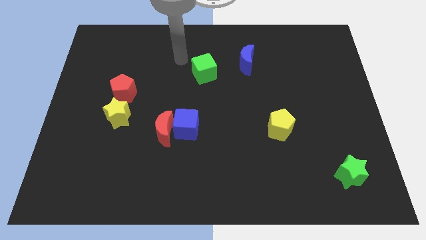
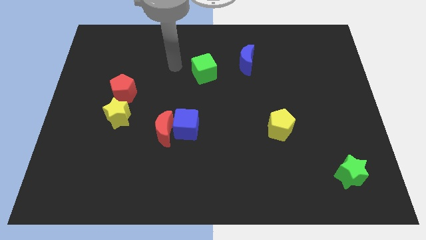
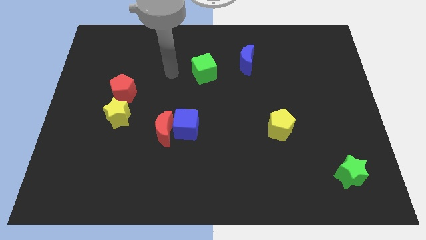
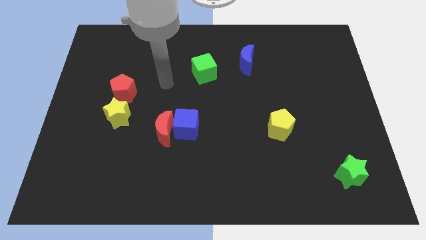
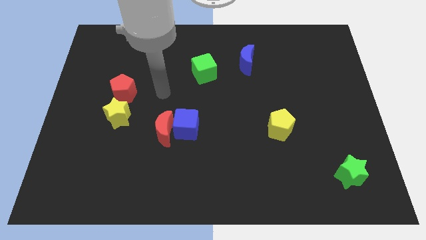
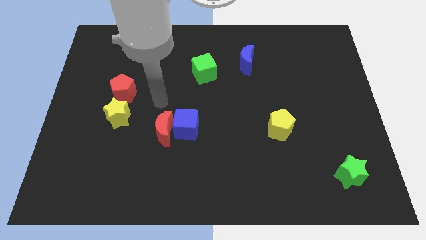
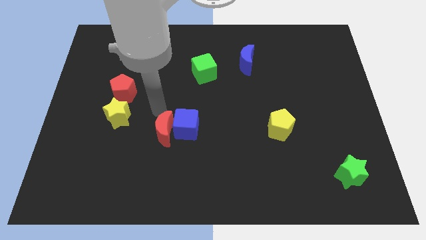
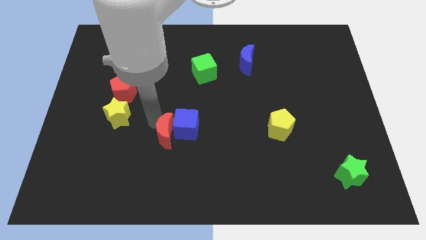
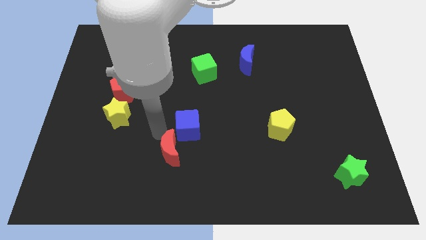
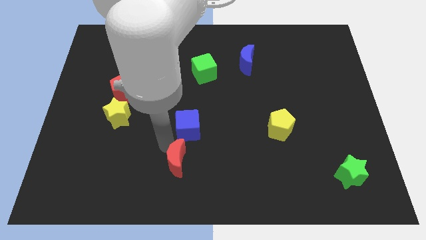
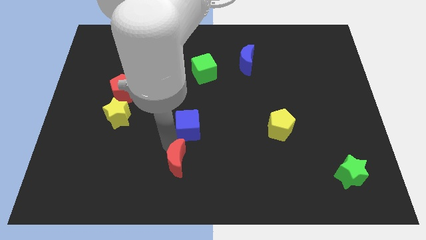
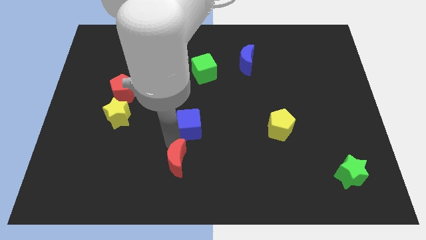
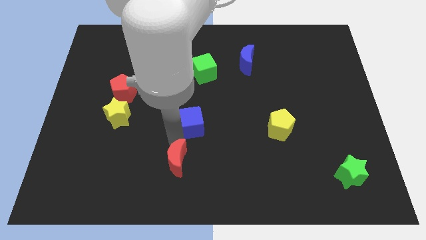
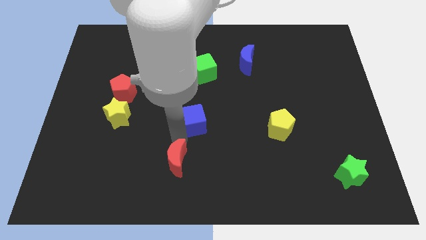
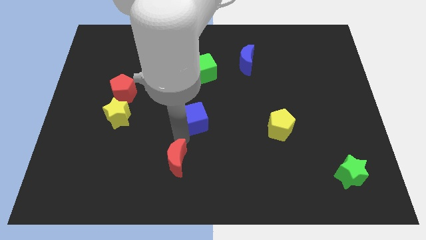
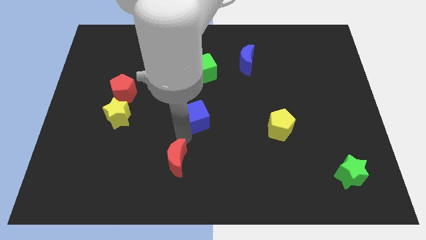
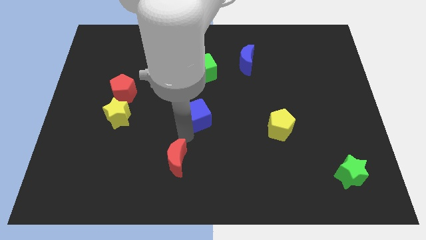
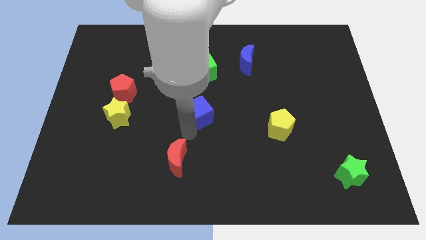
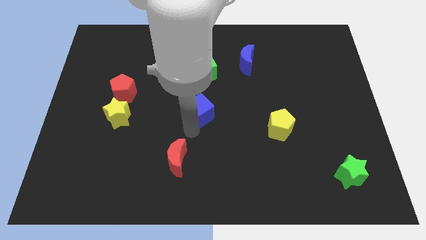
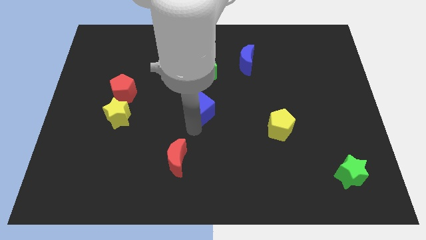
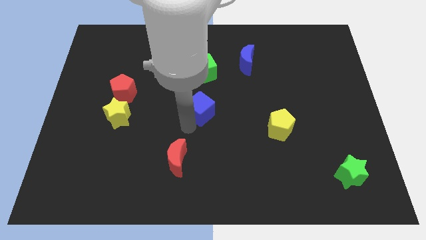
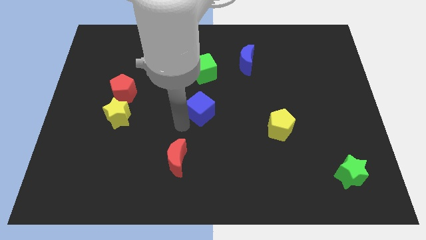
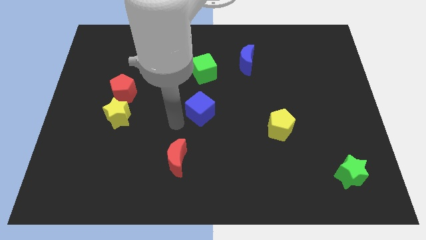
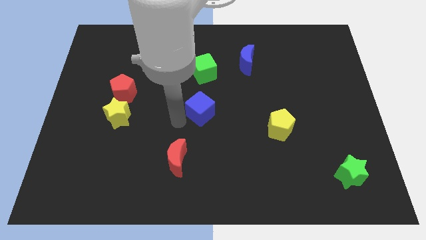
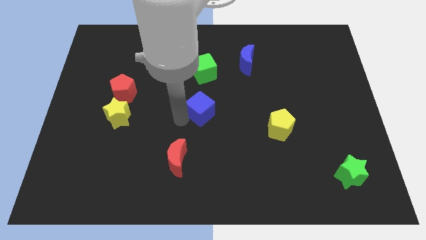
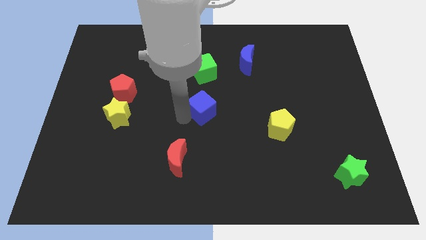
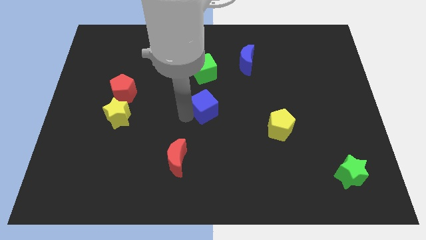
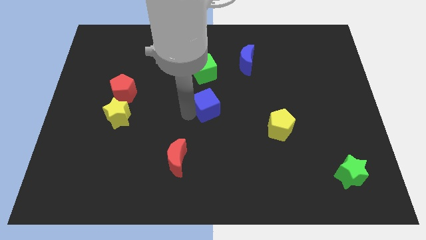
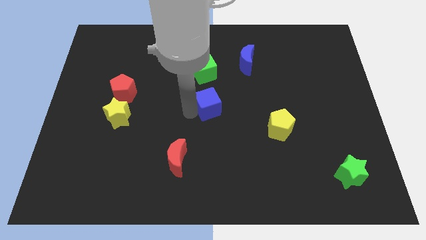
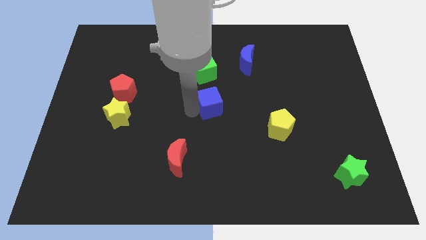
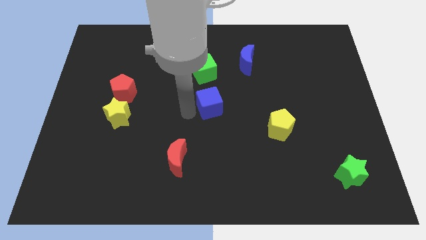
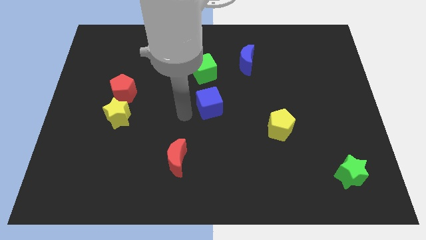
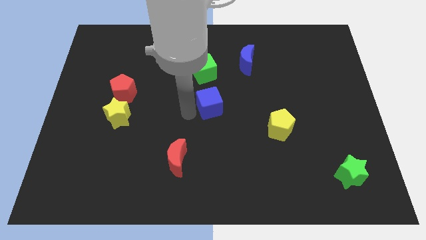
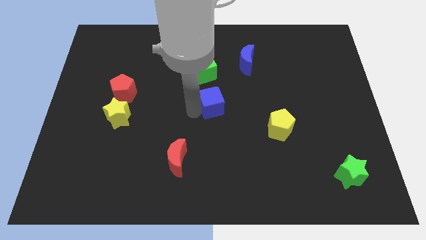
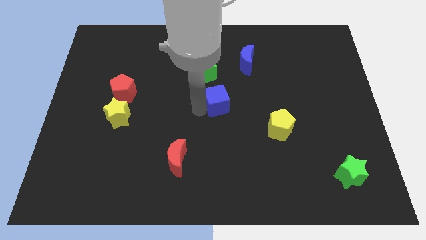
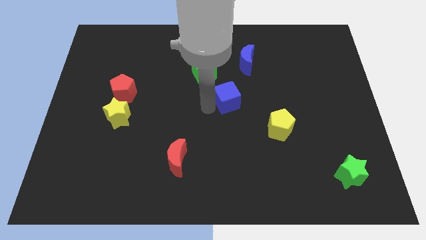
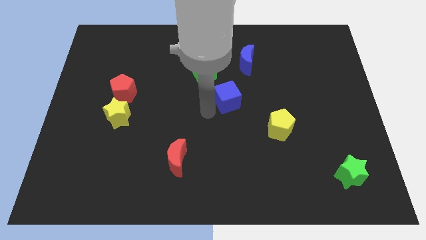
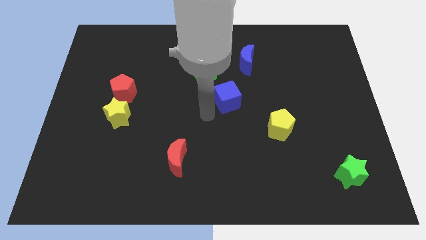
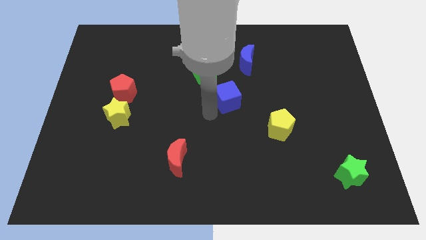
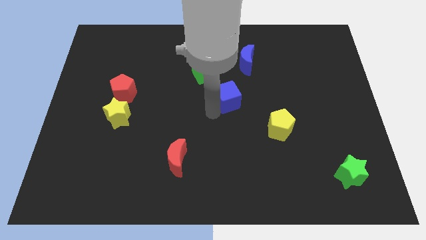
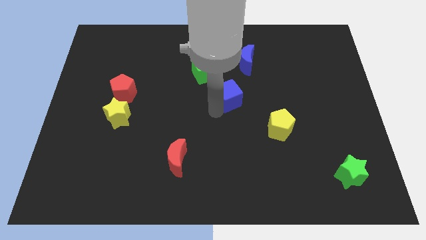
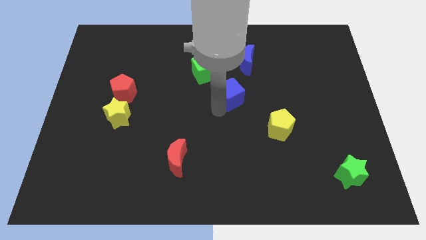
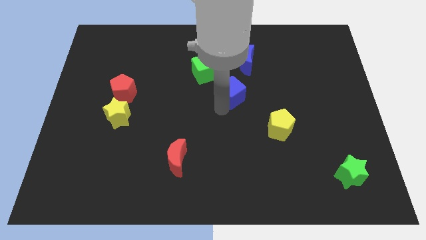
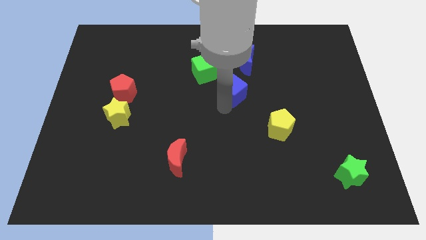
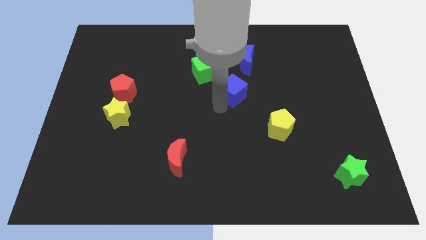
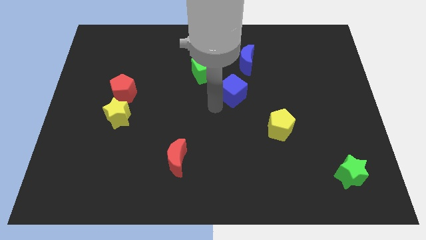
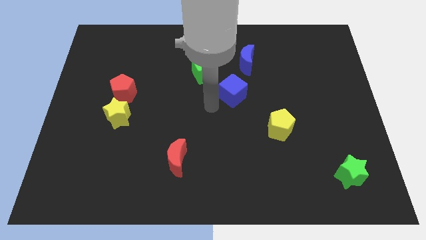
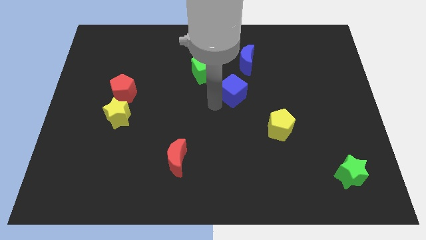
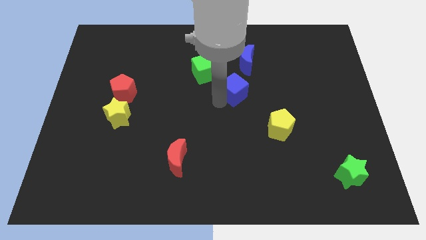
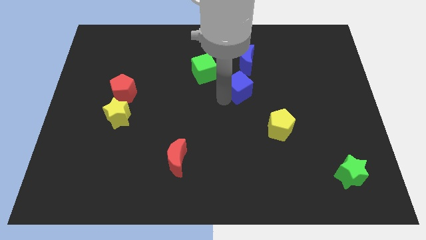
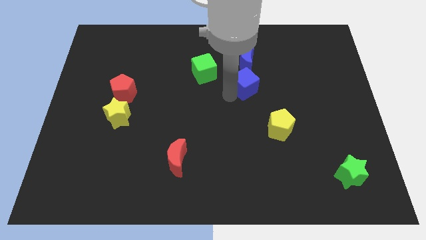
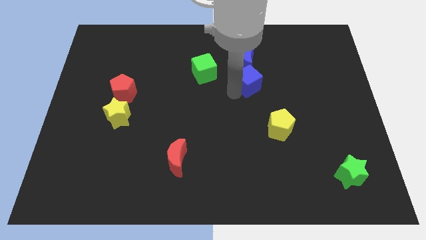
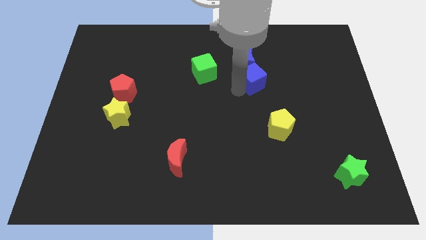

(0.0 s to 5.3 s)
move the blue cube upwards and right diagonally

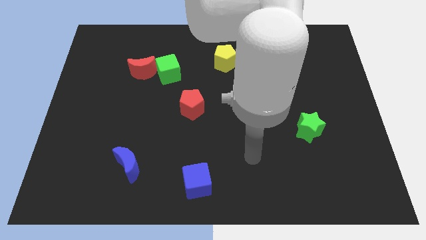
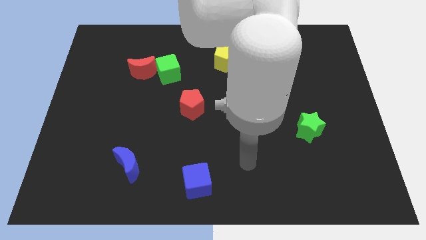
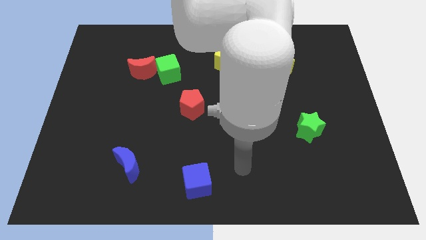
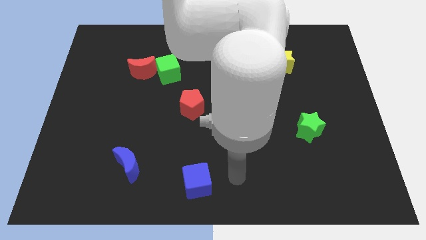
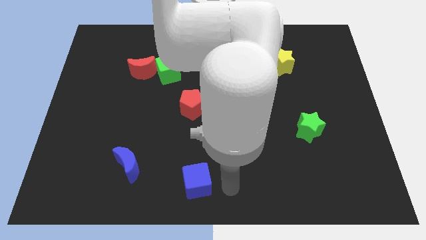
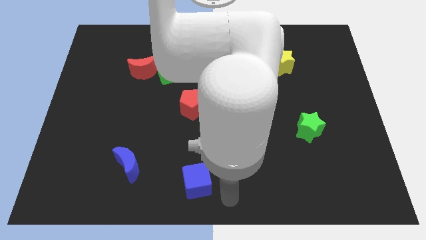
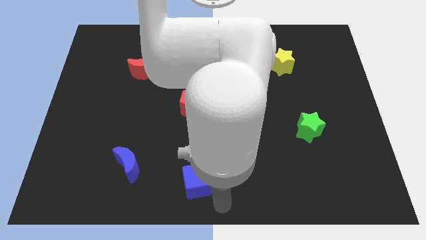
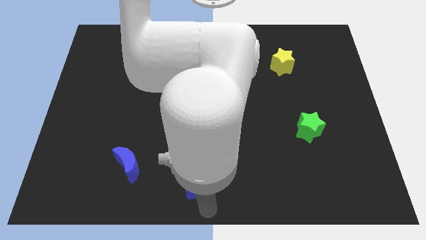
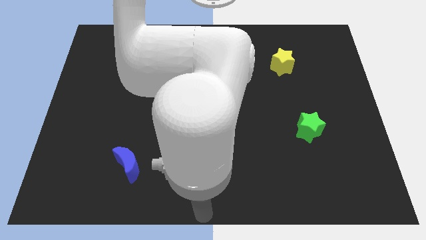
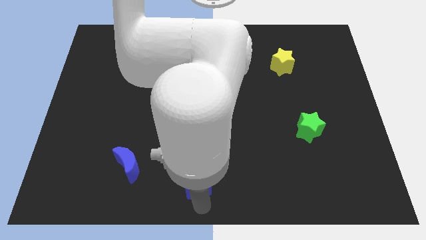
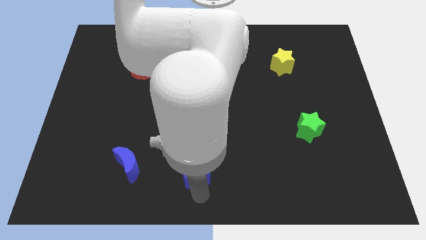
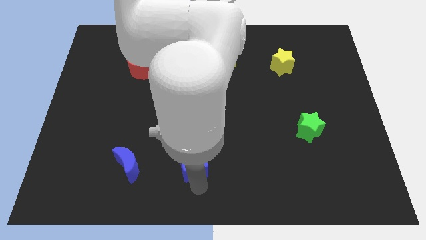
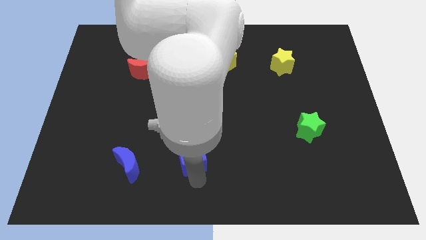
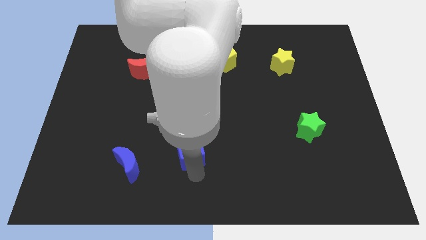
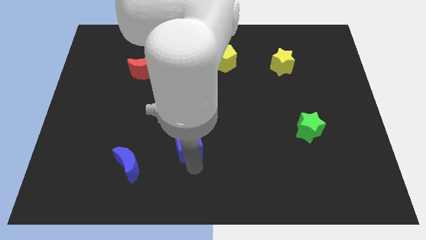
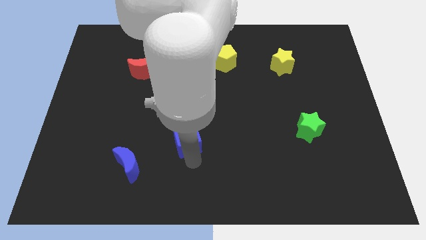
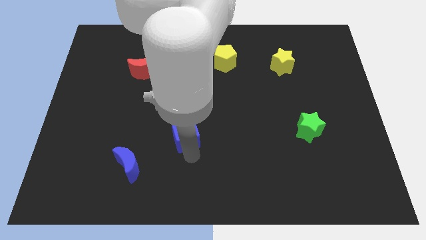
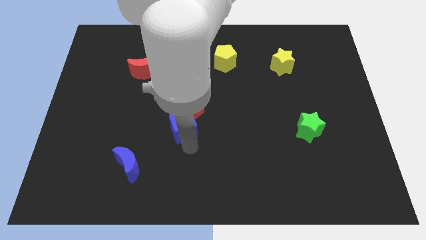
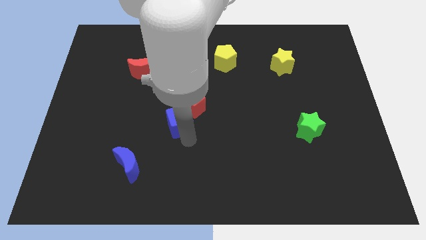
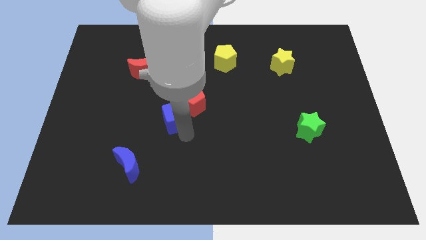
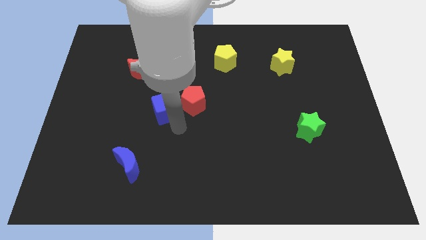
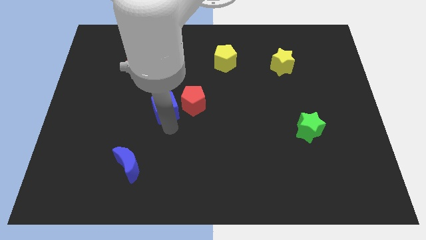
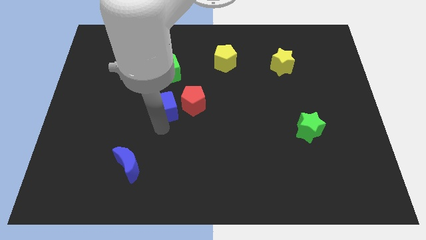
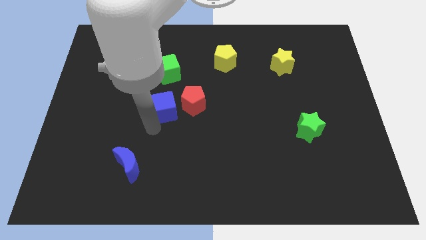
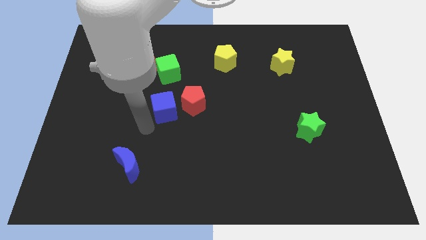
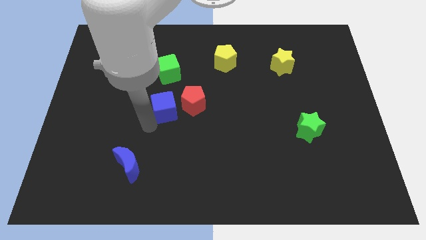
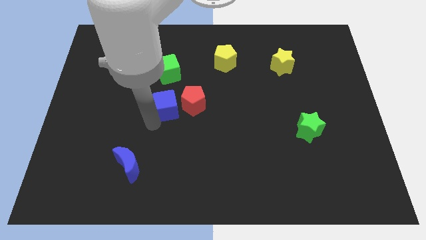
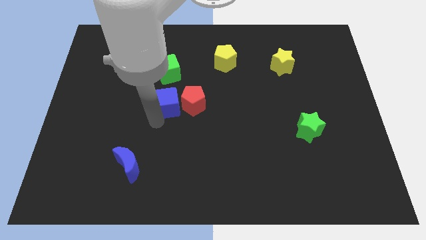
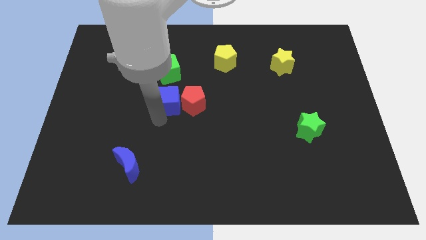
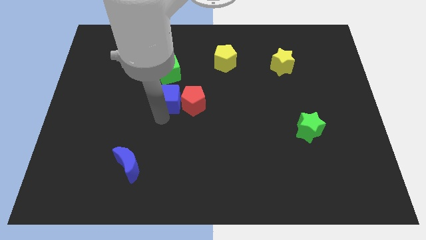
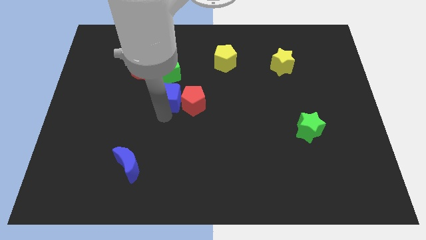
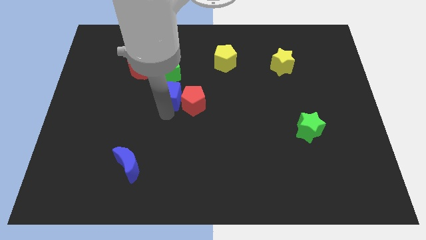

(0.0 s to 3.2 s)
move the blue cube upwards
